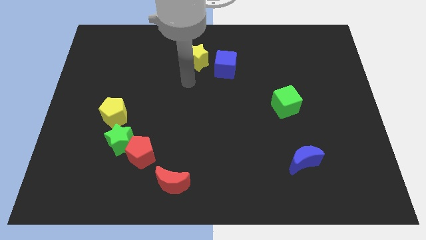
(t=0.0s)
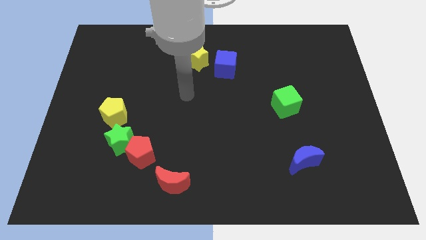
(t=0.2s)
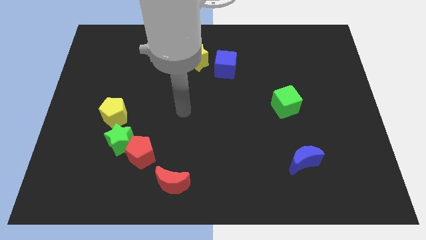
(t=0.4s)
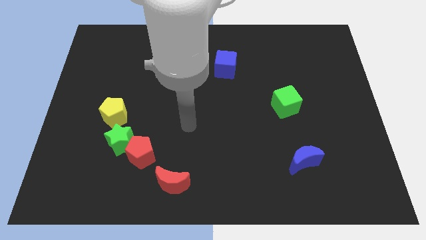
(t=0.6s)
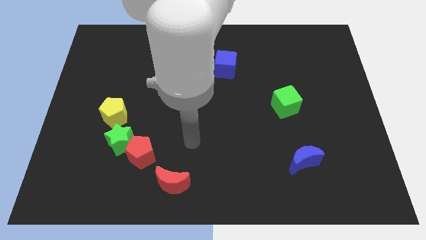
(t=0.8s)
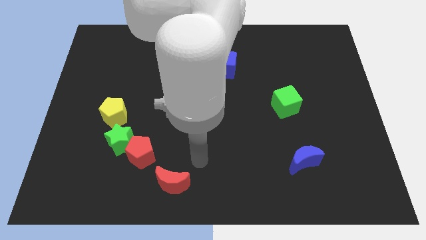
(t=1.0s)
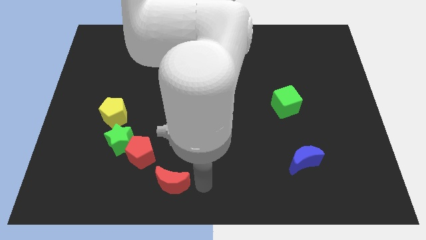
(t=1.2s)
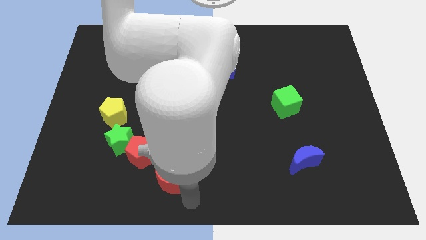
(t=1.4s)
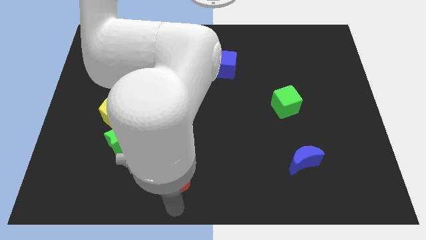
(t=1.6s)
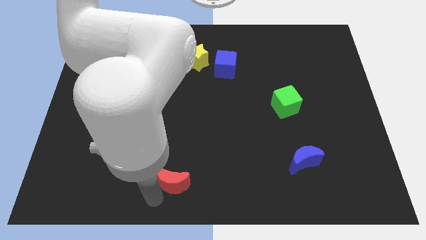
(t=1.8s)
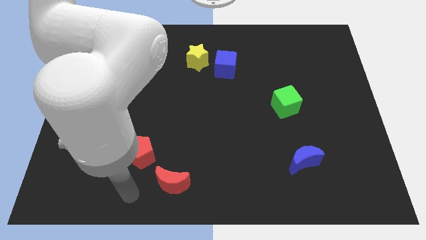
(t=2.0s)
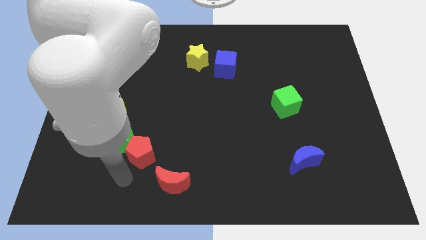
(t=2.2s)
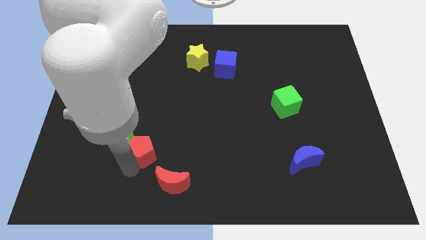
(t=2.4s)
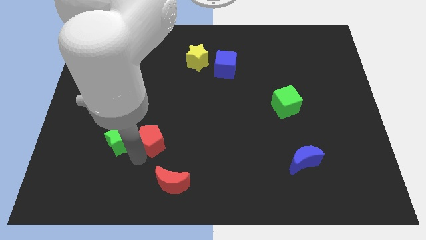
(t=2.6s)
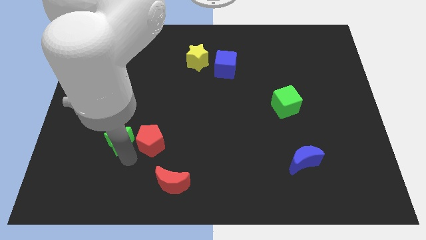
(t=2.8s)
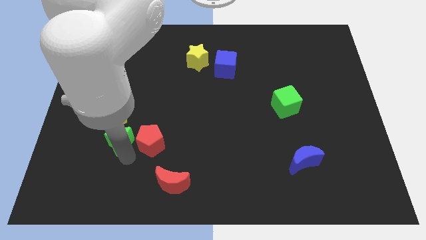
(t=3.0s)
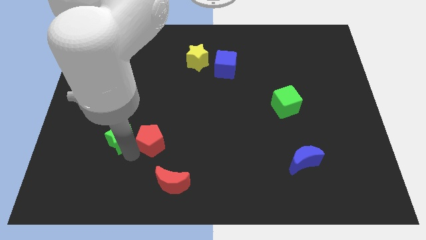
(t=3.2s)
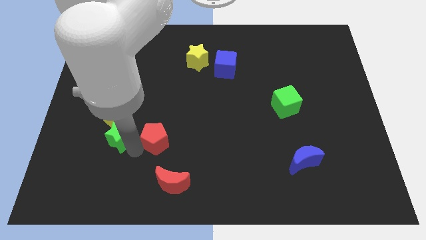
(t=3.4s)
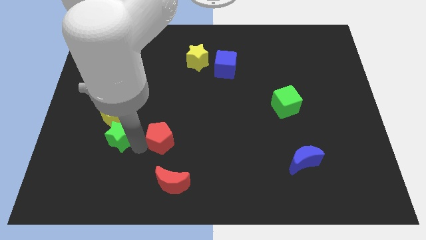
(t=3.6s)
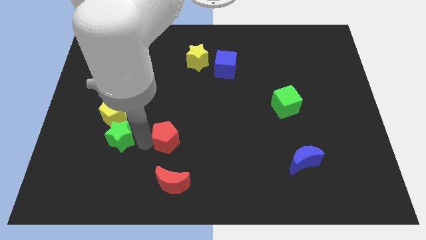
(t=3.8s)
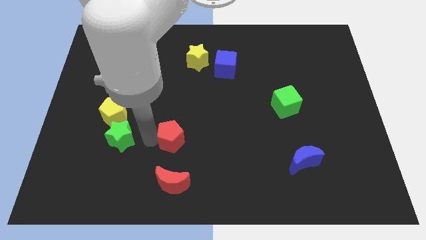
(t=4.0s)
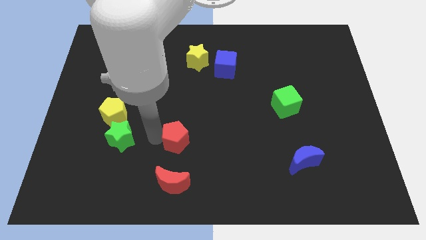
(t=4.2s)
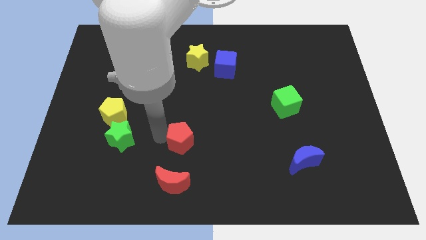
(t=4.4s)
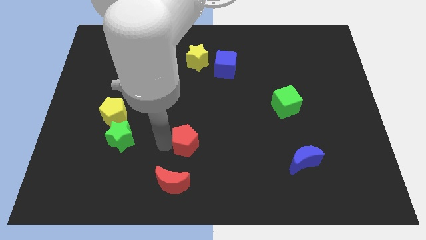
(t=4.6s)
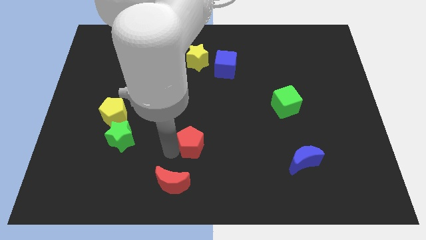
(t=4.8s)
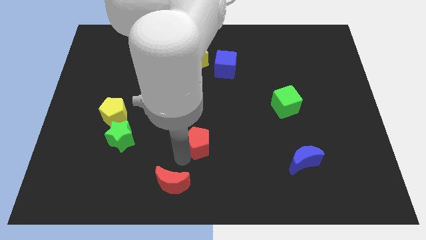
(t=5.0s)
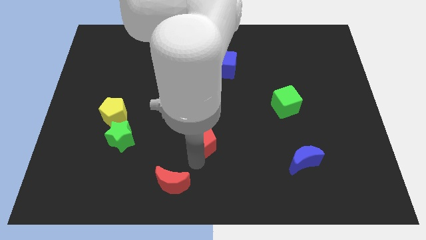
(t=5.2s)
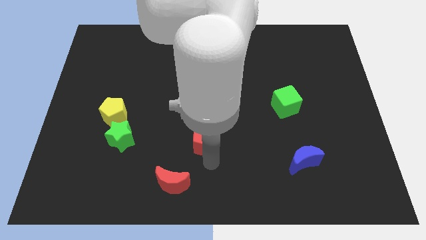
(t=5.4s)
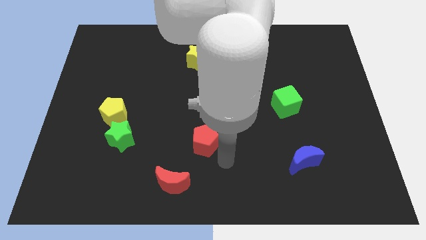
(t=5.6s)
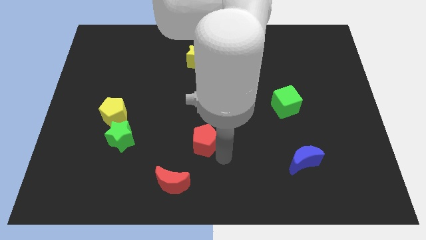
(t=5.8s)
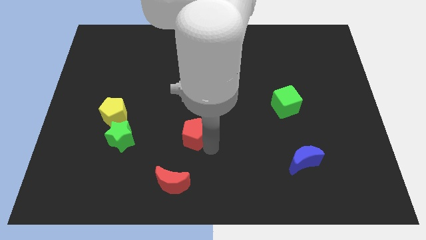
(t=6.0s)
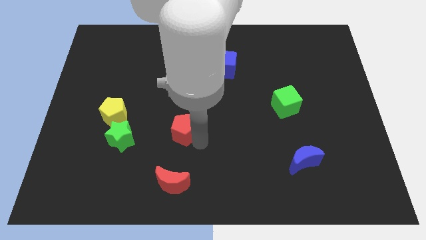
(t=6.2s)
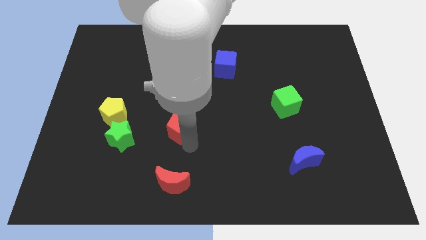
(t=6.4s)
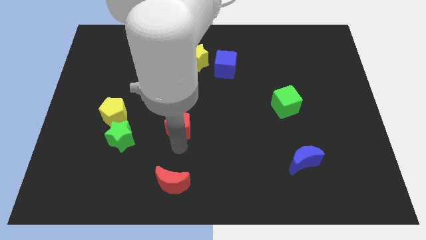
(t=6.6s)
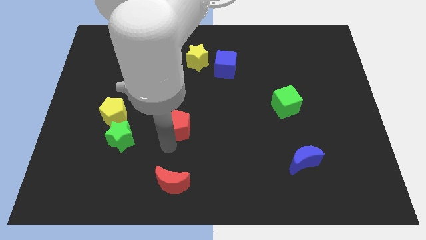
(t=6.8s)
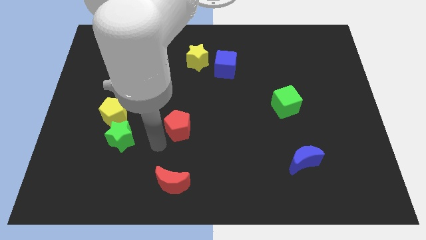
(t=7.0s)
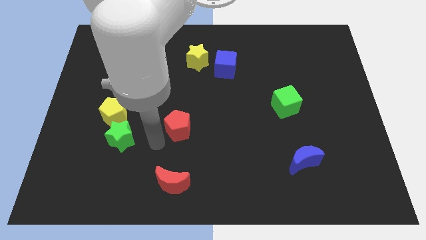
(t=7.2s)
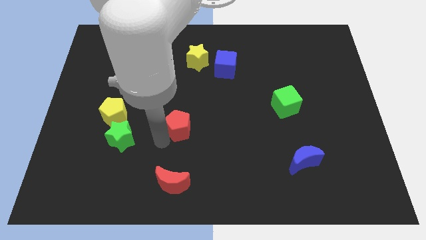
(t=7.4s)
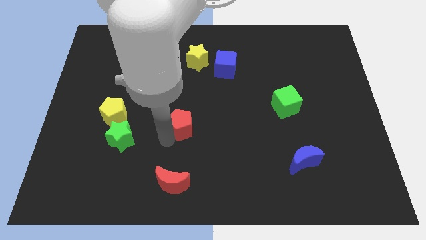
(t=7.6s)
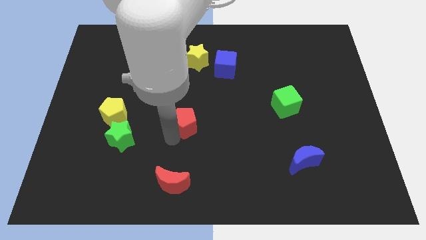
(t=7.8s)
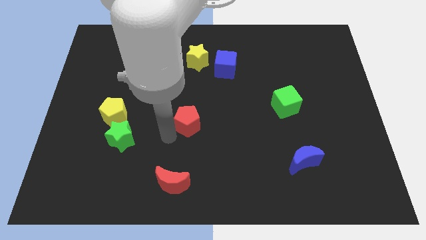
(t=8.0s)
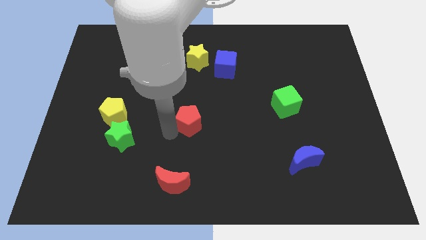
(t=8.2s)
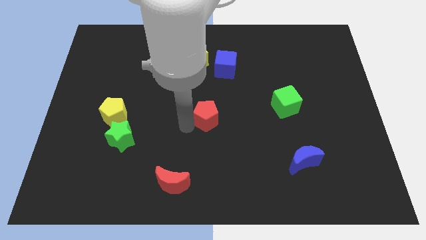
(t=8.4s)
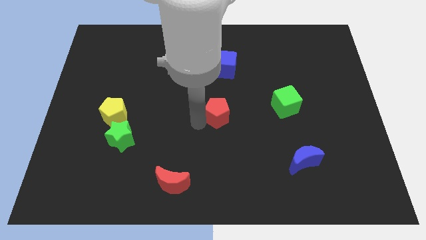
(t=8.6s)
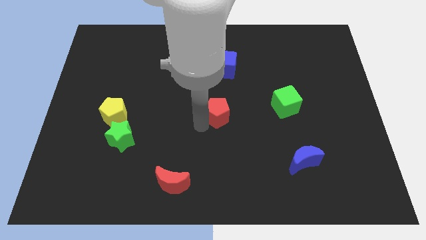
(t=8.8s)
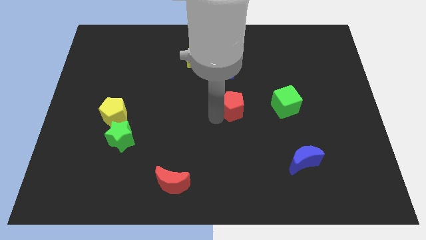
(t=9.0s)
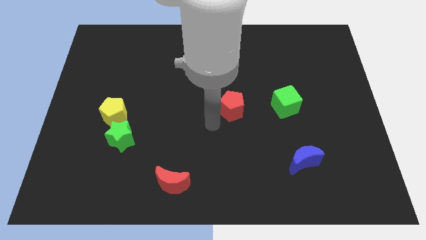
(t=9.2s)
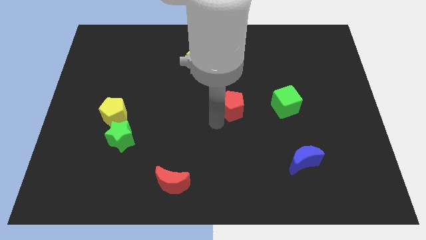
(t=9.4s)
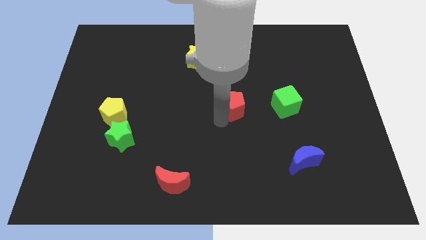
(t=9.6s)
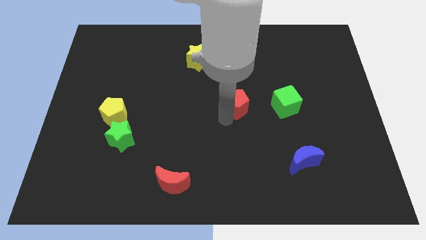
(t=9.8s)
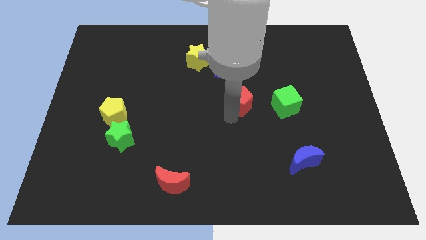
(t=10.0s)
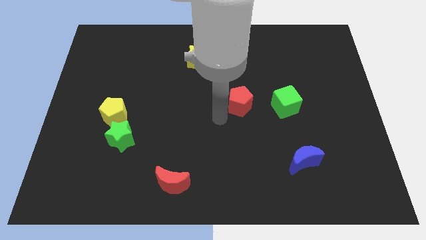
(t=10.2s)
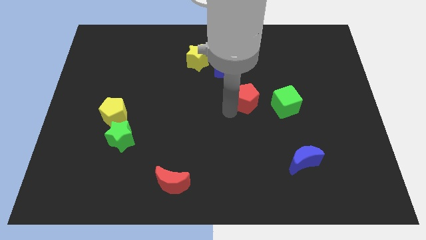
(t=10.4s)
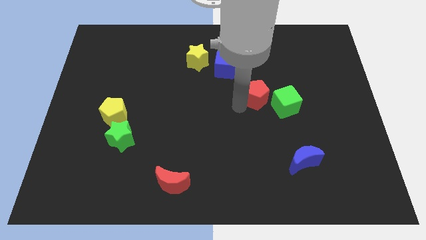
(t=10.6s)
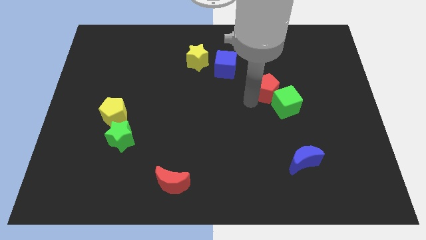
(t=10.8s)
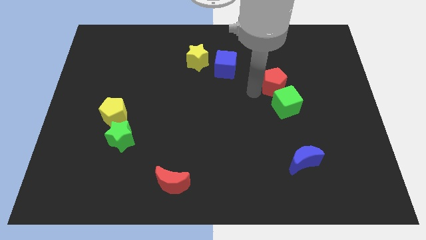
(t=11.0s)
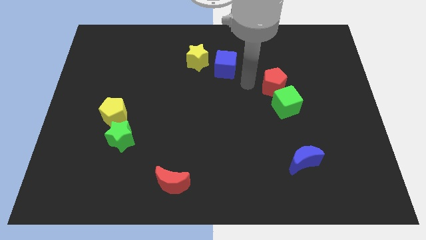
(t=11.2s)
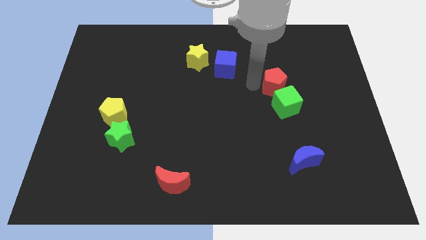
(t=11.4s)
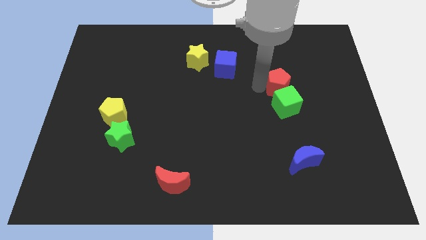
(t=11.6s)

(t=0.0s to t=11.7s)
slide the red pentagon diagonally up and to the right of the green cube

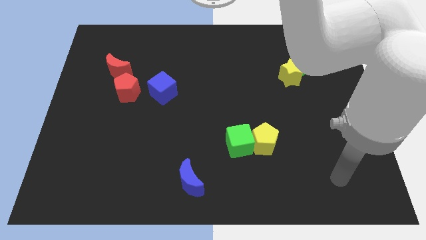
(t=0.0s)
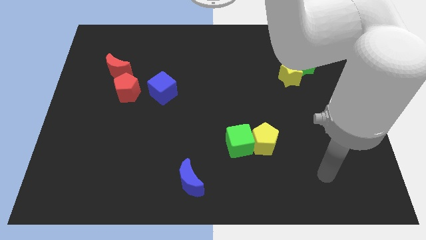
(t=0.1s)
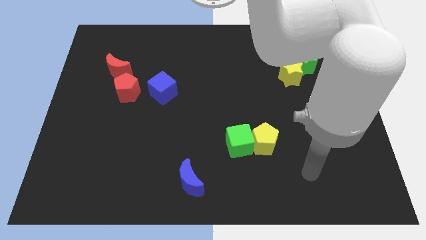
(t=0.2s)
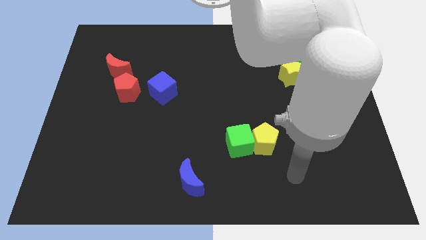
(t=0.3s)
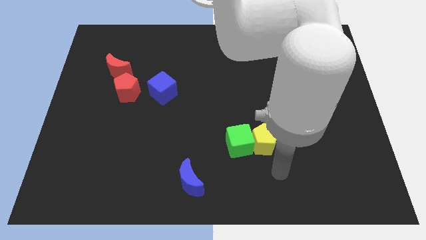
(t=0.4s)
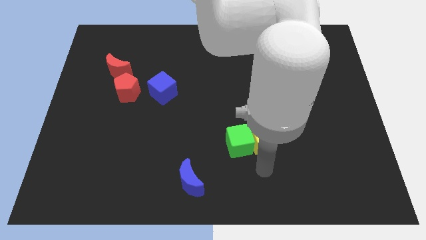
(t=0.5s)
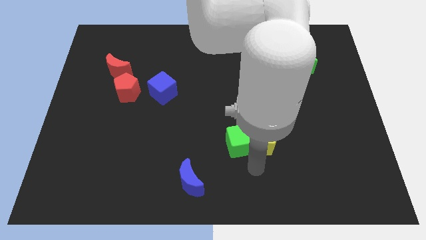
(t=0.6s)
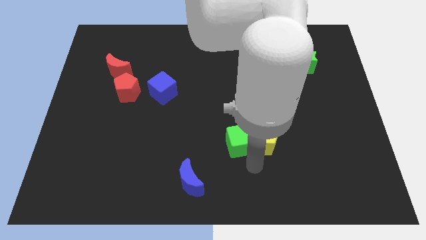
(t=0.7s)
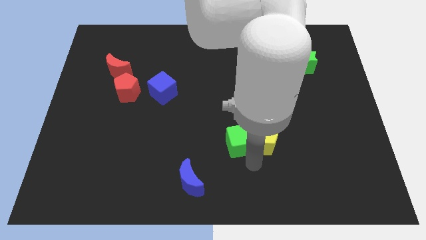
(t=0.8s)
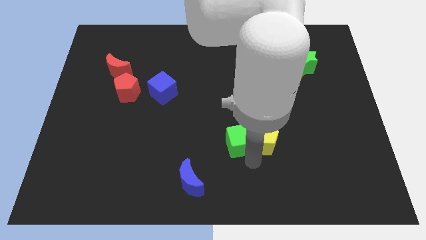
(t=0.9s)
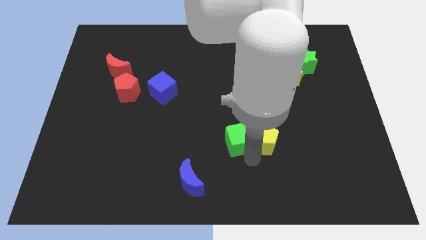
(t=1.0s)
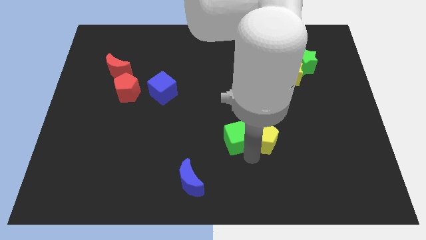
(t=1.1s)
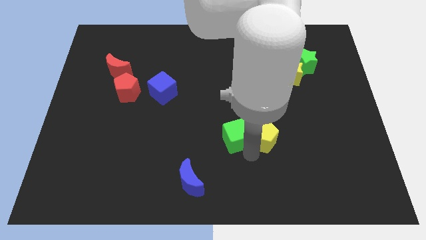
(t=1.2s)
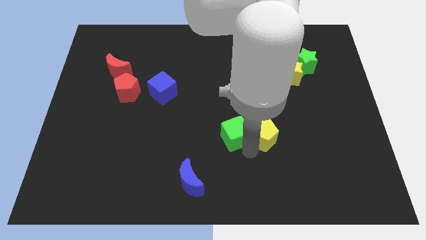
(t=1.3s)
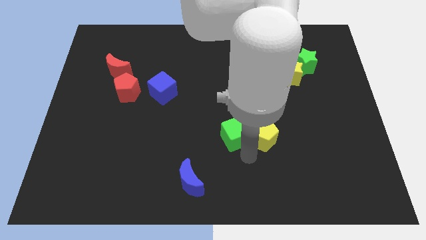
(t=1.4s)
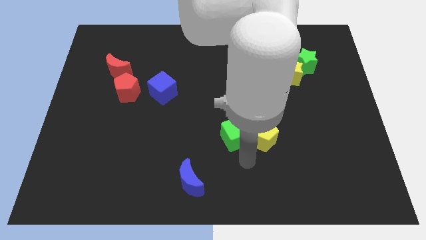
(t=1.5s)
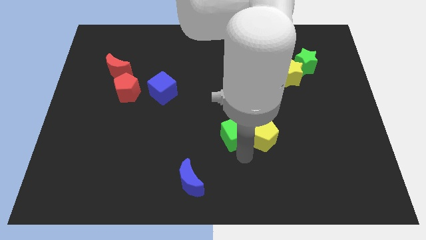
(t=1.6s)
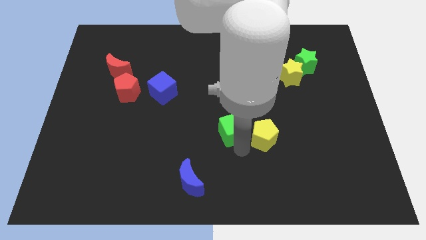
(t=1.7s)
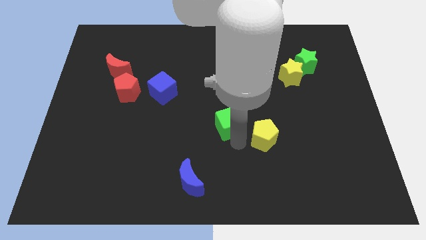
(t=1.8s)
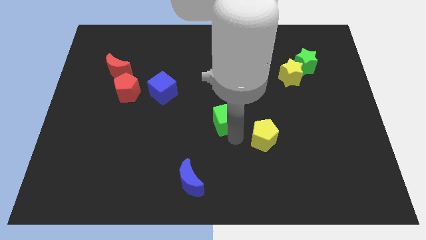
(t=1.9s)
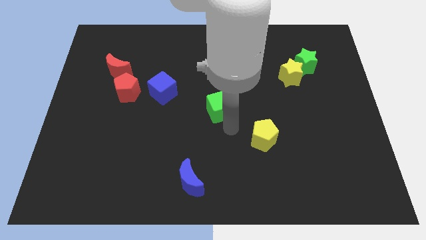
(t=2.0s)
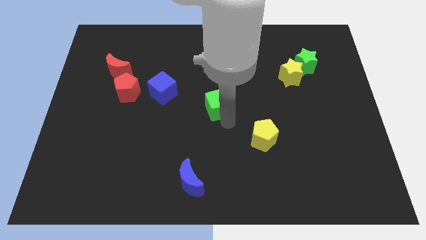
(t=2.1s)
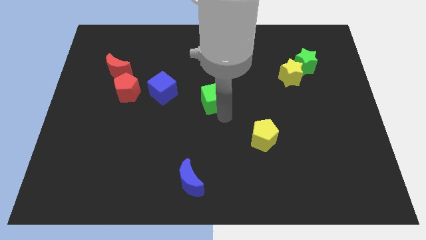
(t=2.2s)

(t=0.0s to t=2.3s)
put the green cube right of the blue cube
